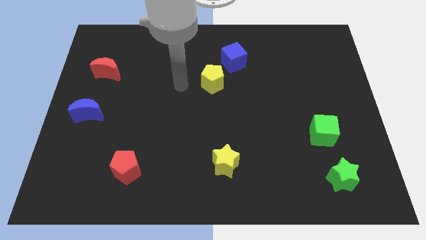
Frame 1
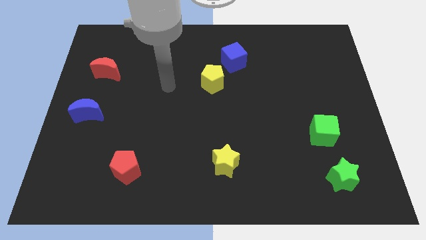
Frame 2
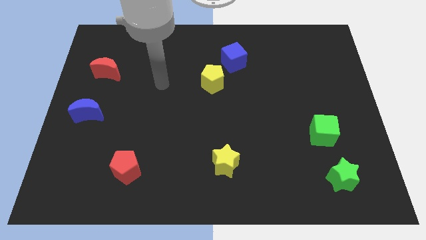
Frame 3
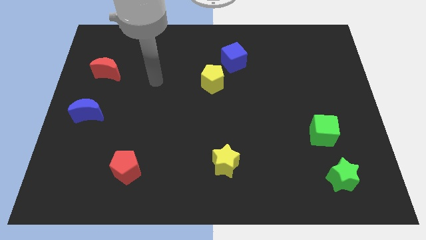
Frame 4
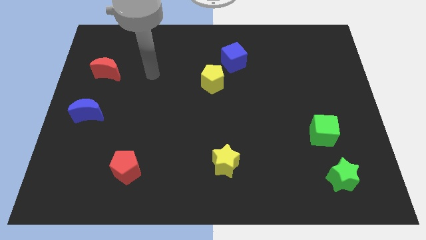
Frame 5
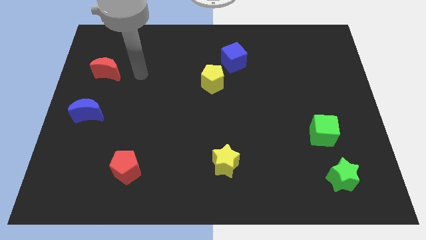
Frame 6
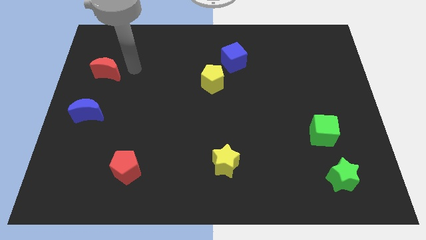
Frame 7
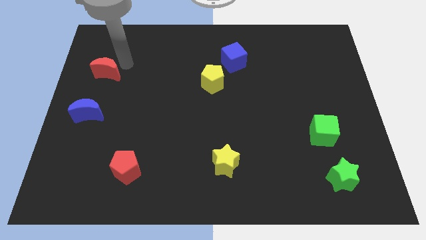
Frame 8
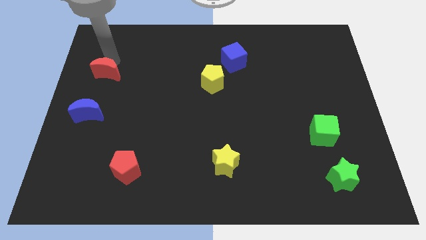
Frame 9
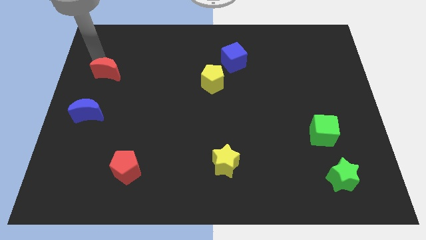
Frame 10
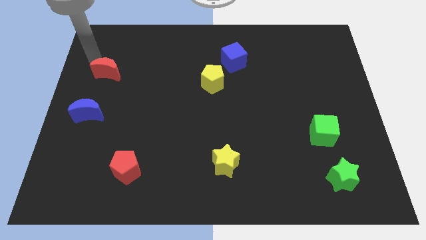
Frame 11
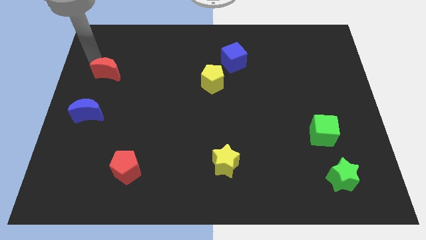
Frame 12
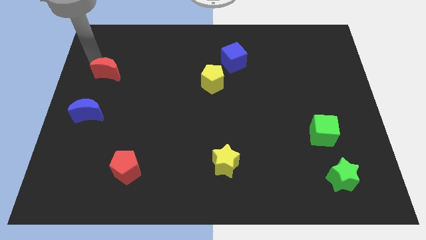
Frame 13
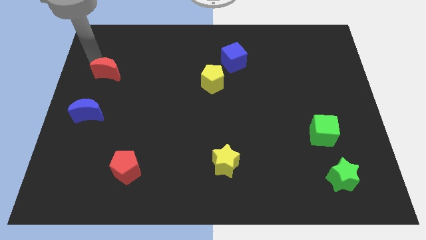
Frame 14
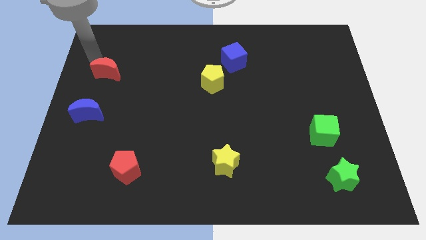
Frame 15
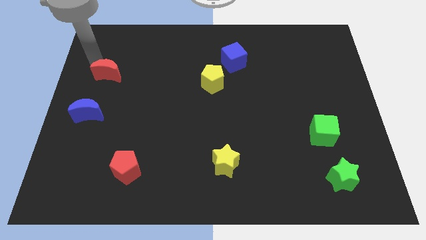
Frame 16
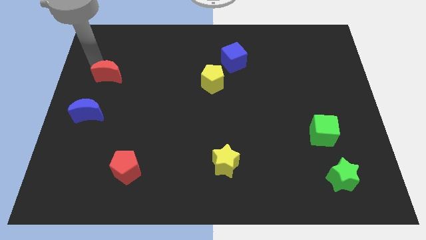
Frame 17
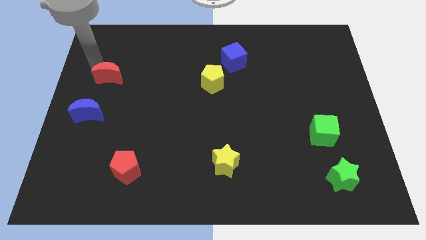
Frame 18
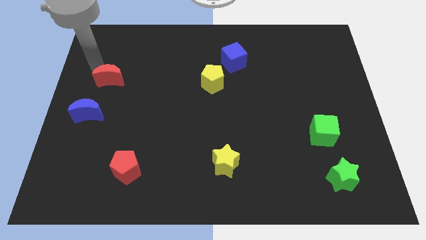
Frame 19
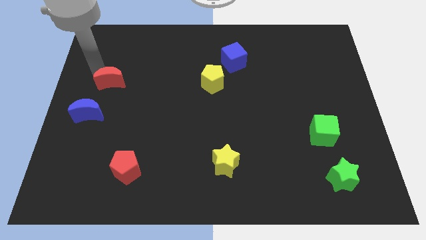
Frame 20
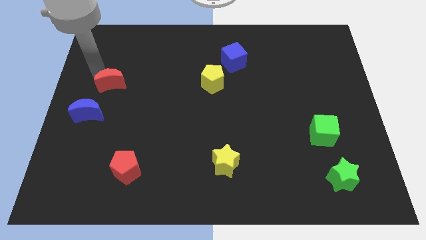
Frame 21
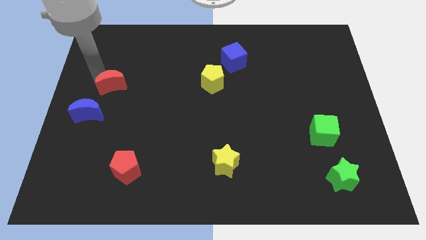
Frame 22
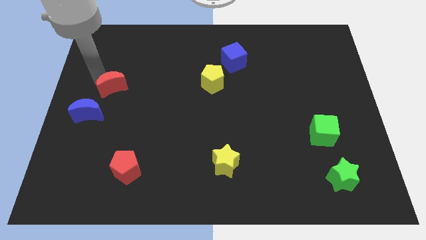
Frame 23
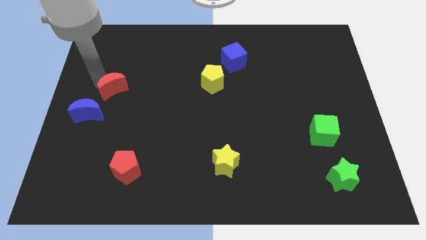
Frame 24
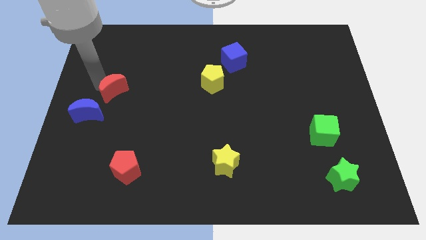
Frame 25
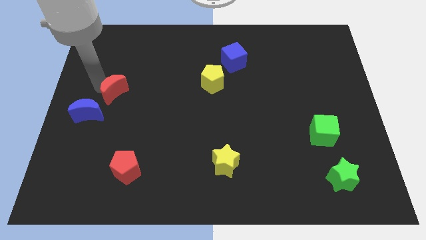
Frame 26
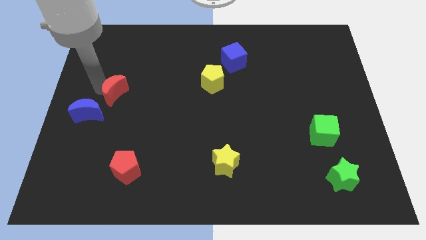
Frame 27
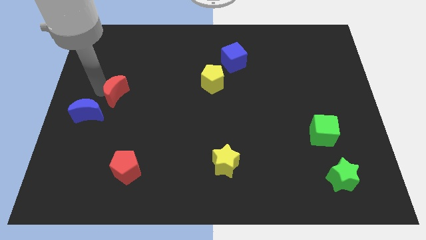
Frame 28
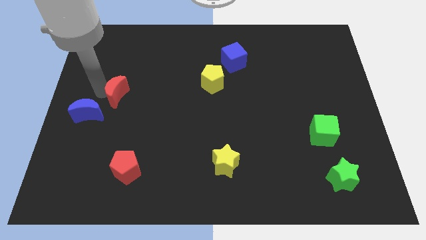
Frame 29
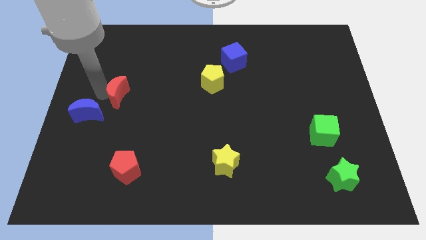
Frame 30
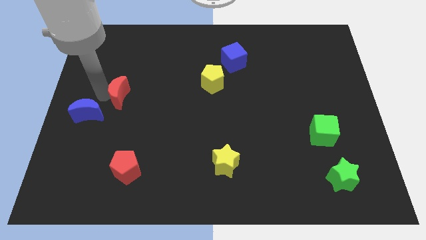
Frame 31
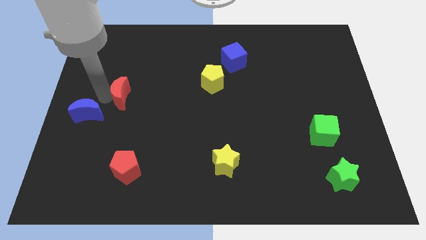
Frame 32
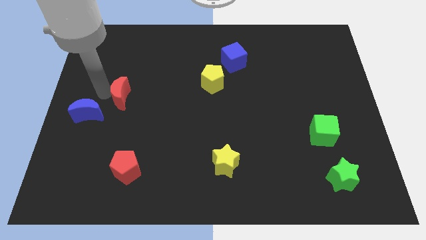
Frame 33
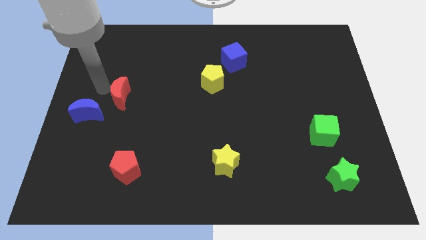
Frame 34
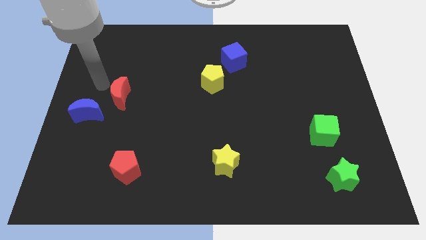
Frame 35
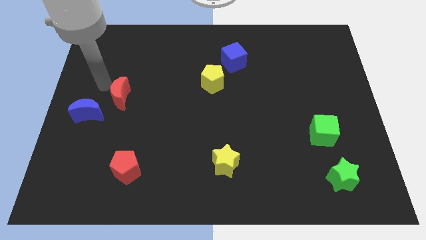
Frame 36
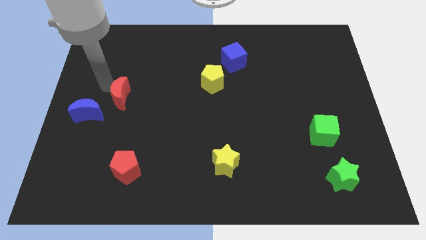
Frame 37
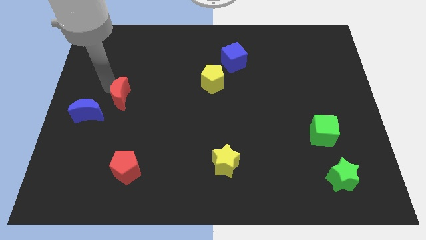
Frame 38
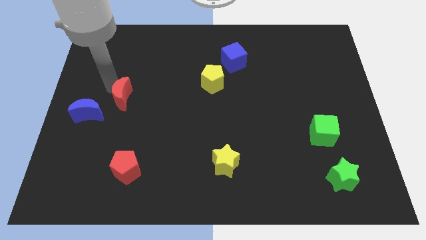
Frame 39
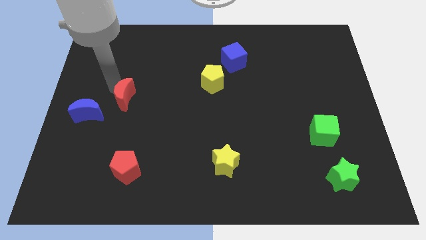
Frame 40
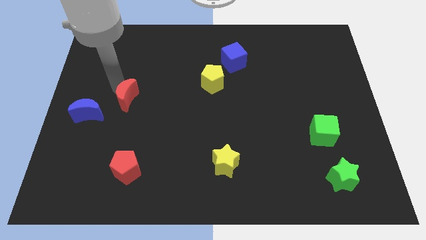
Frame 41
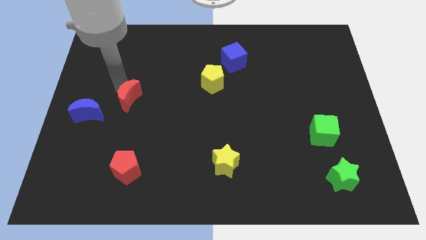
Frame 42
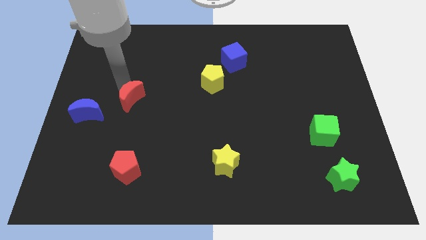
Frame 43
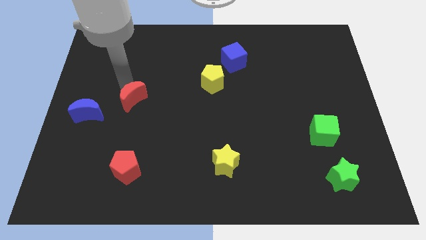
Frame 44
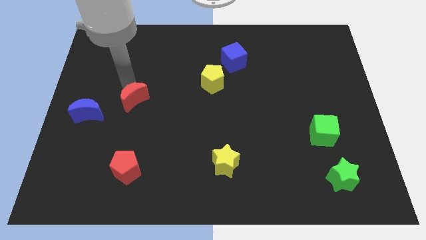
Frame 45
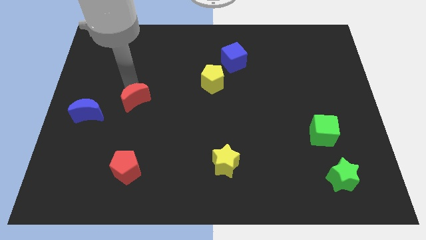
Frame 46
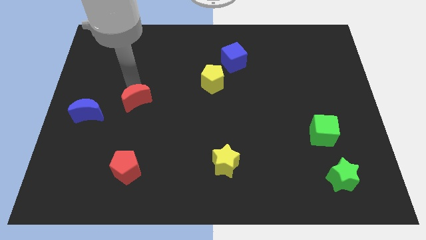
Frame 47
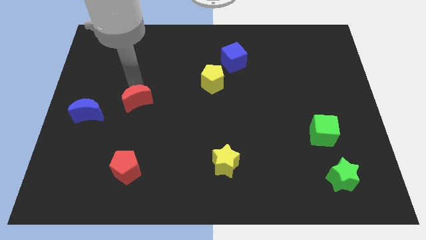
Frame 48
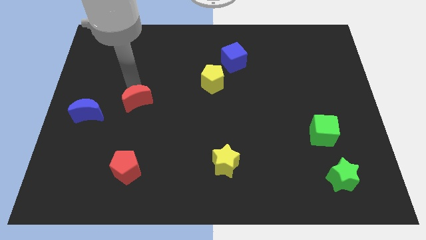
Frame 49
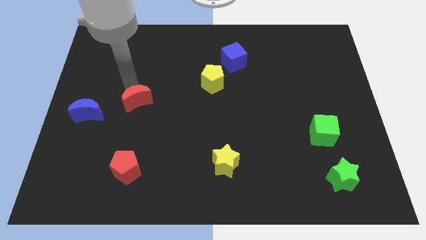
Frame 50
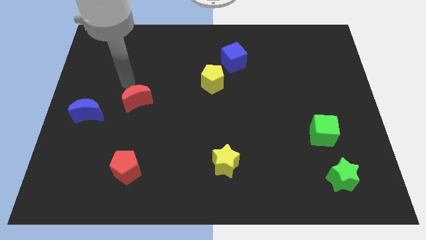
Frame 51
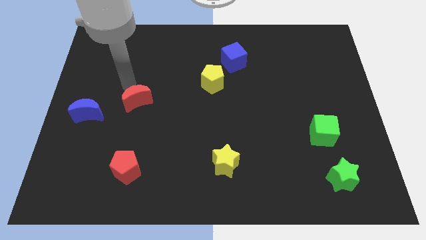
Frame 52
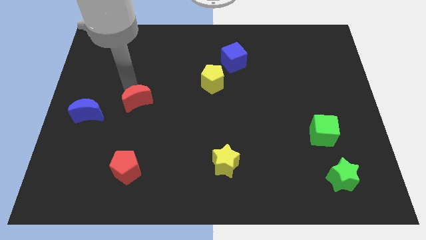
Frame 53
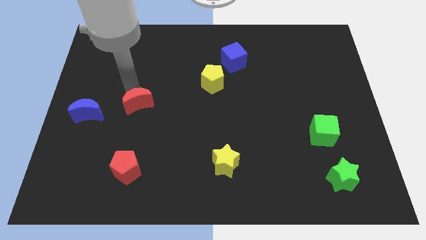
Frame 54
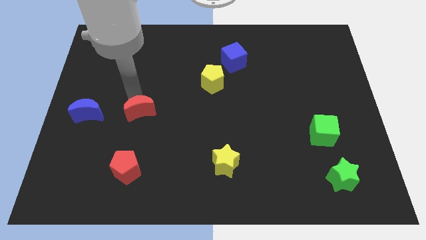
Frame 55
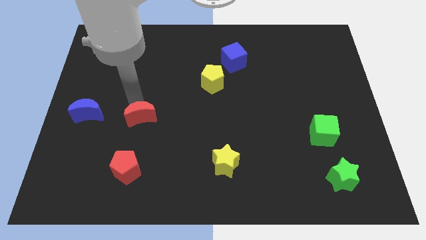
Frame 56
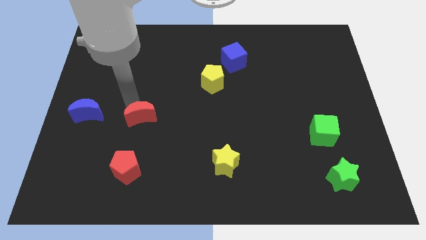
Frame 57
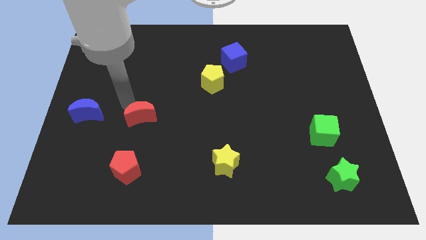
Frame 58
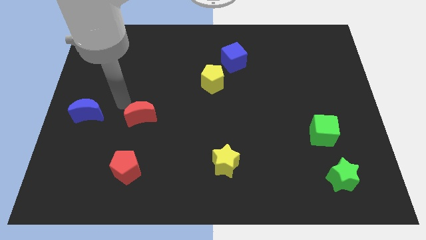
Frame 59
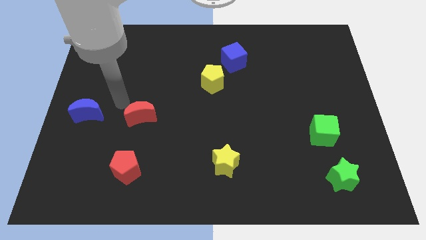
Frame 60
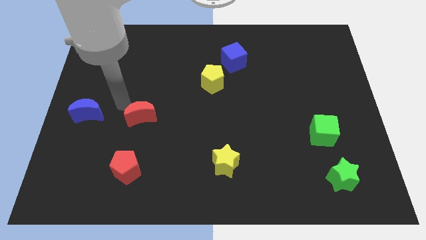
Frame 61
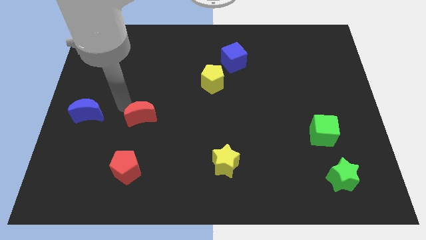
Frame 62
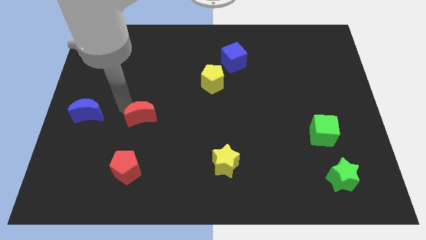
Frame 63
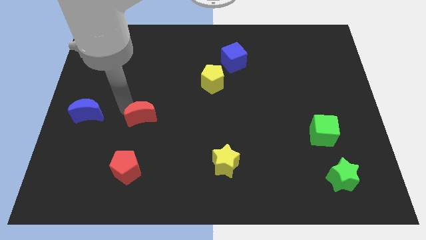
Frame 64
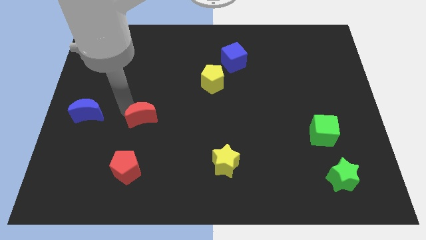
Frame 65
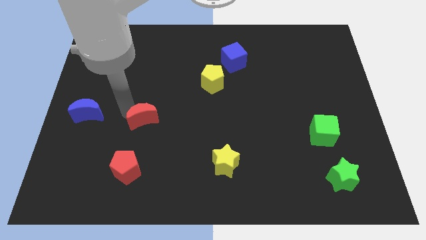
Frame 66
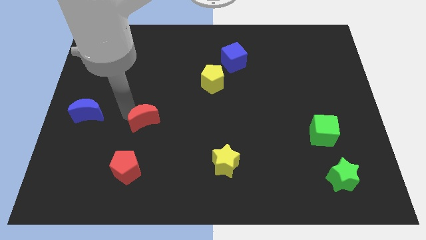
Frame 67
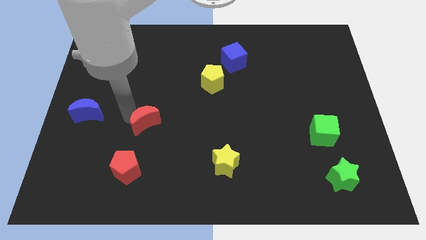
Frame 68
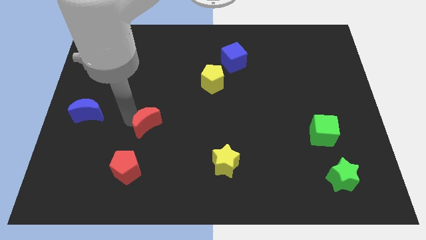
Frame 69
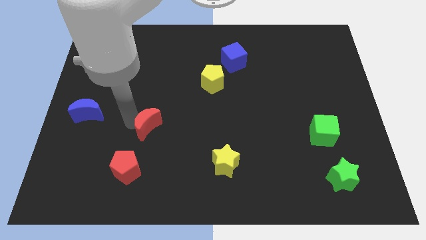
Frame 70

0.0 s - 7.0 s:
push the red moon diagonally downwards and to the right

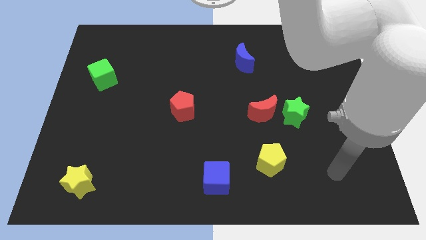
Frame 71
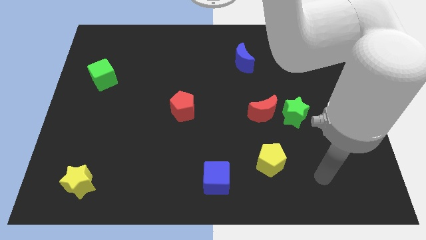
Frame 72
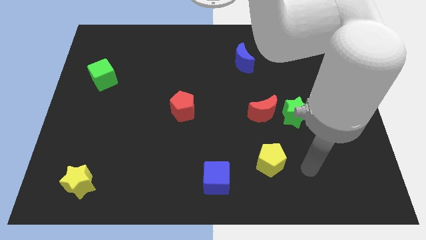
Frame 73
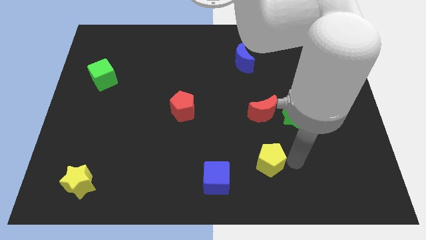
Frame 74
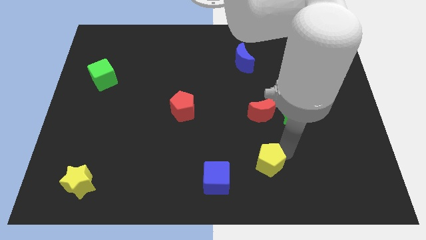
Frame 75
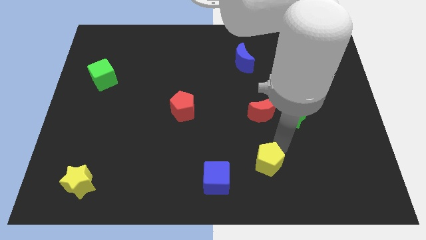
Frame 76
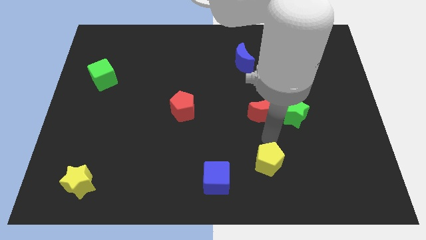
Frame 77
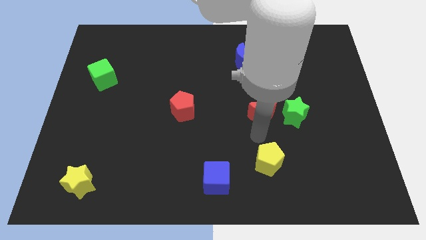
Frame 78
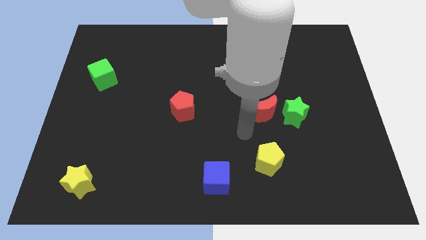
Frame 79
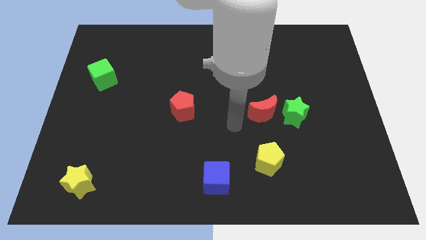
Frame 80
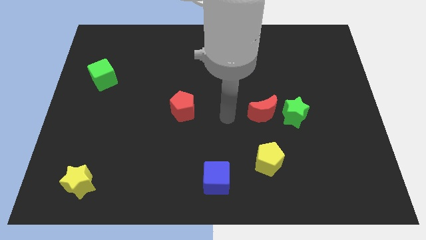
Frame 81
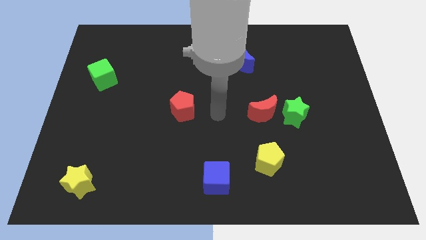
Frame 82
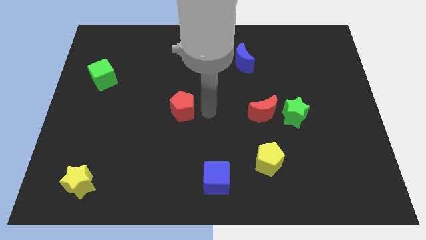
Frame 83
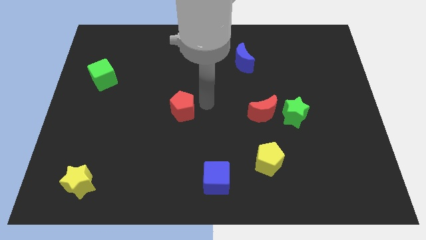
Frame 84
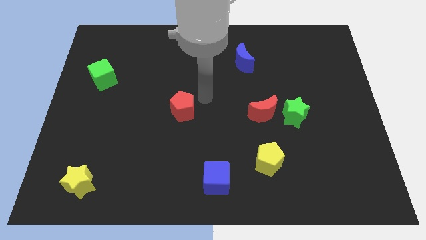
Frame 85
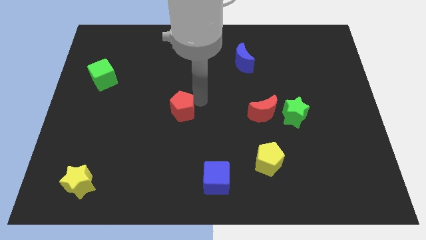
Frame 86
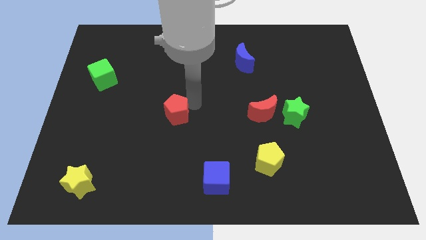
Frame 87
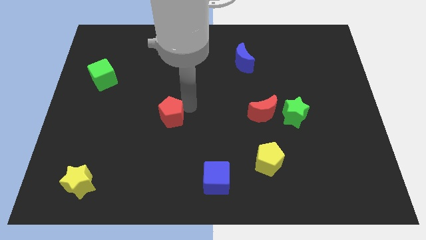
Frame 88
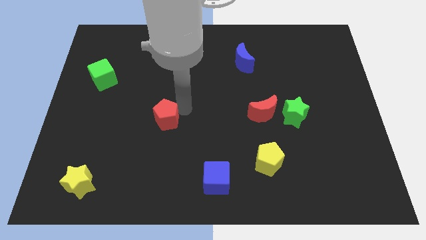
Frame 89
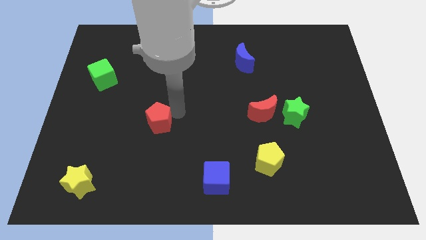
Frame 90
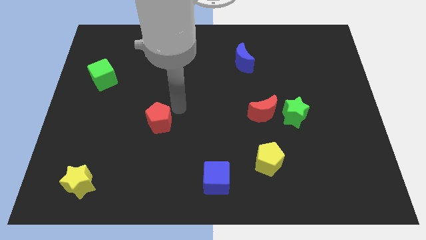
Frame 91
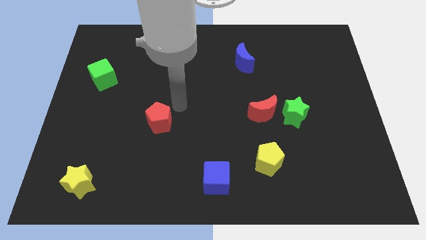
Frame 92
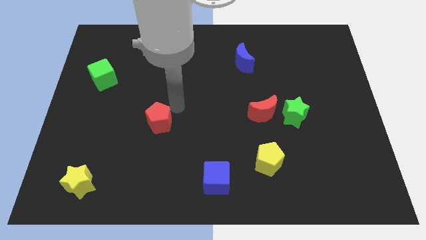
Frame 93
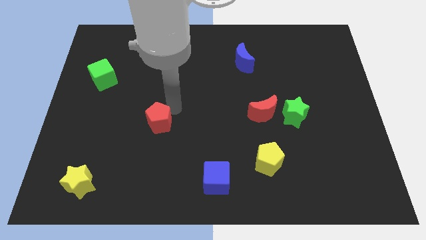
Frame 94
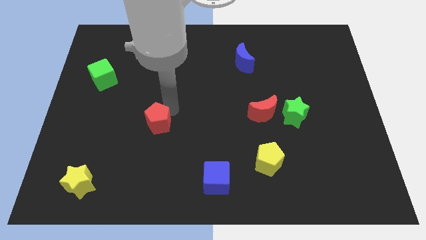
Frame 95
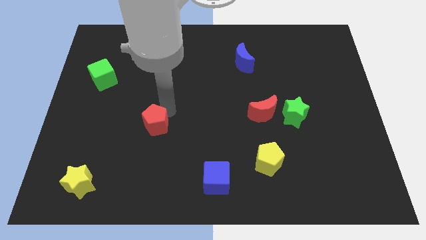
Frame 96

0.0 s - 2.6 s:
move the red pentagon slightly down and left diagonally
